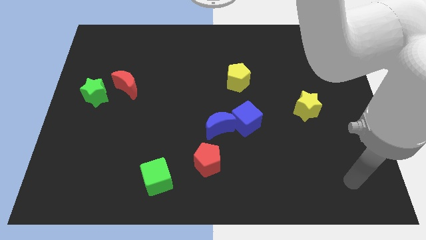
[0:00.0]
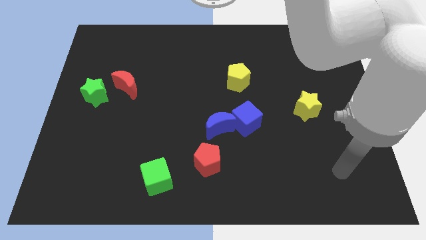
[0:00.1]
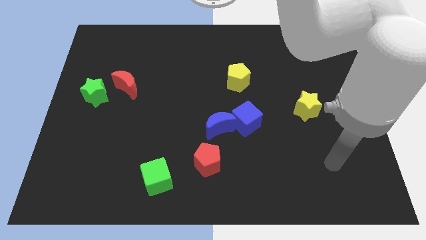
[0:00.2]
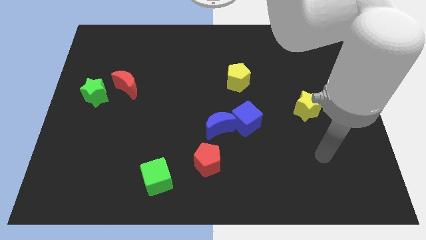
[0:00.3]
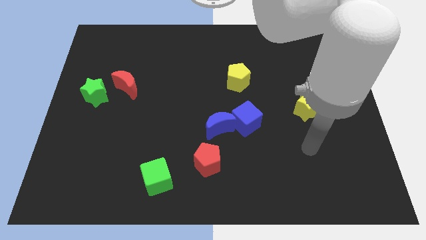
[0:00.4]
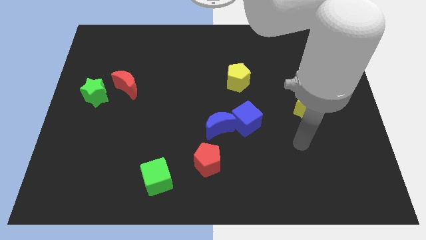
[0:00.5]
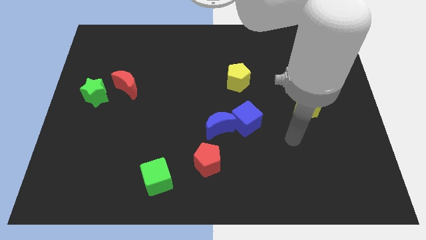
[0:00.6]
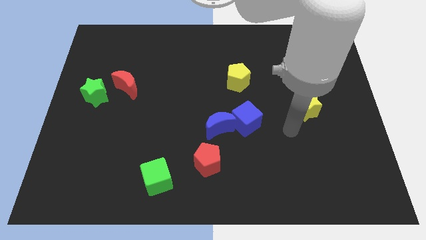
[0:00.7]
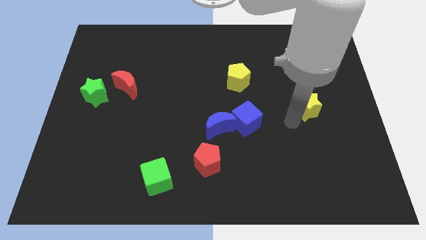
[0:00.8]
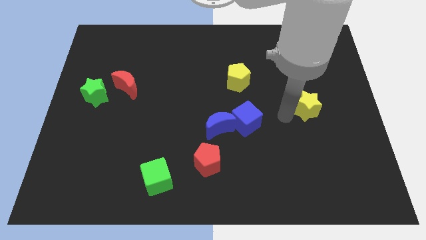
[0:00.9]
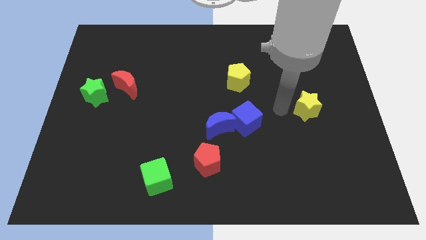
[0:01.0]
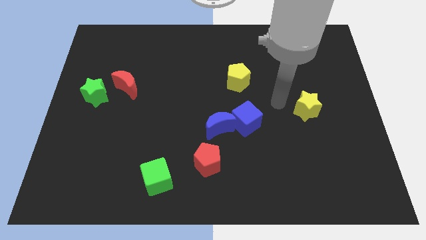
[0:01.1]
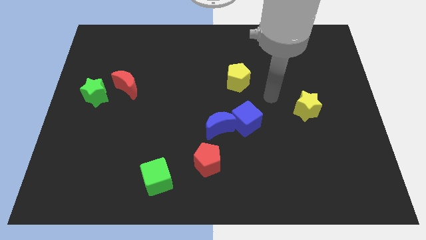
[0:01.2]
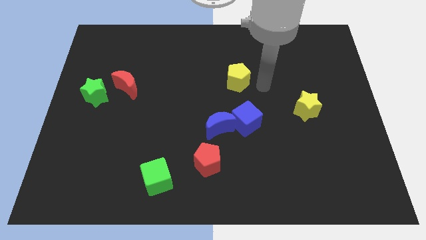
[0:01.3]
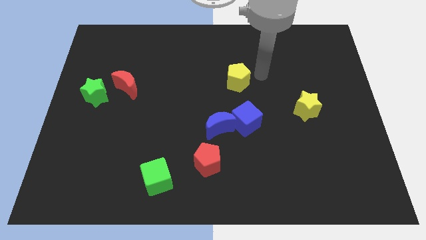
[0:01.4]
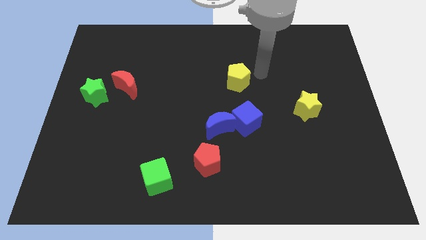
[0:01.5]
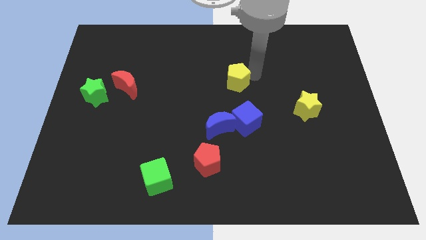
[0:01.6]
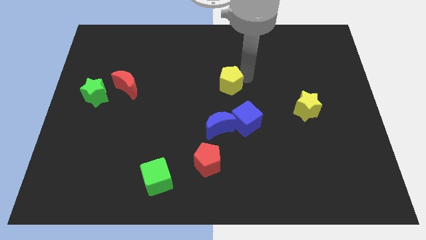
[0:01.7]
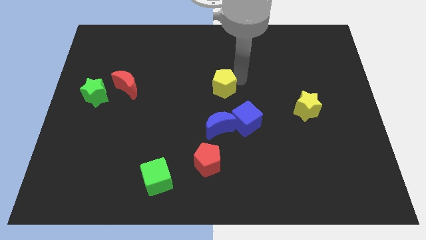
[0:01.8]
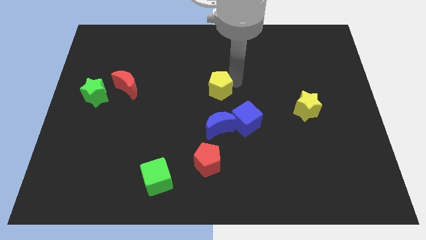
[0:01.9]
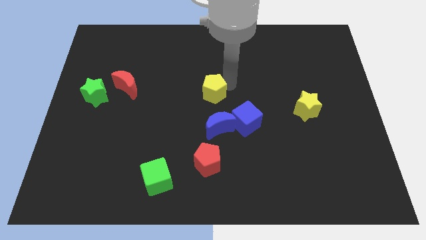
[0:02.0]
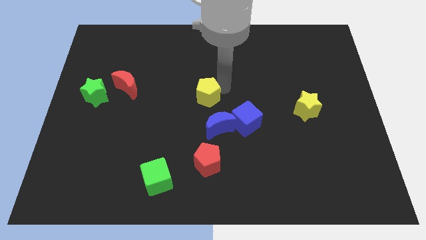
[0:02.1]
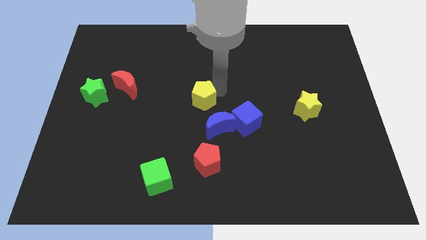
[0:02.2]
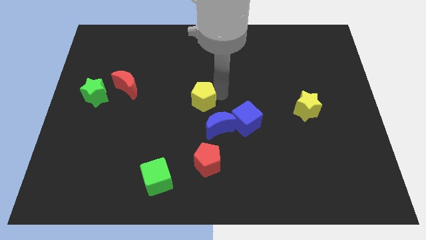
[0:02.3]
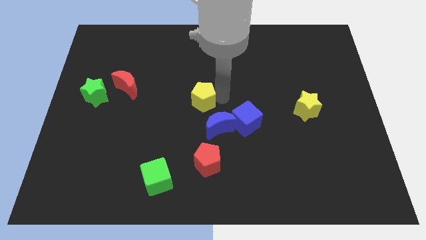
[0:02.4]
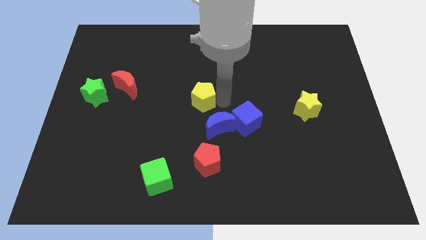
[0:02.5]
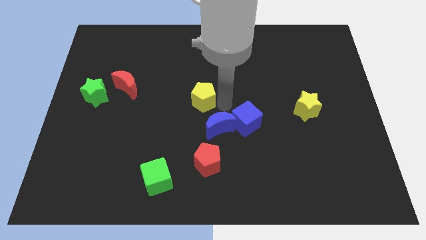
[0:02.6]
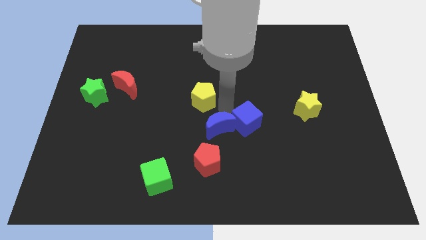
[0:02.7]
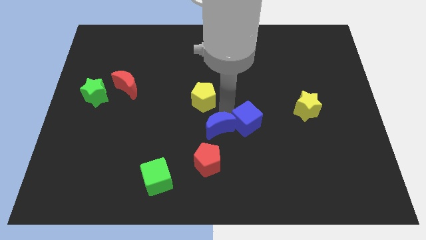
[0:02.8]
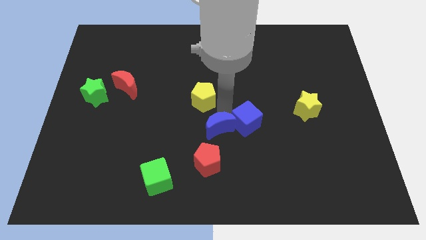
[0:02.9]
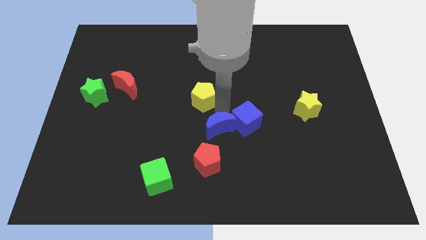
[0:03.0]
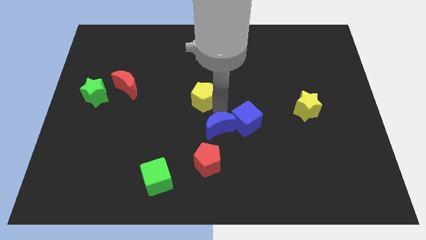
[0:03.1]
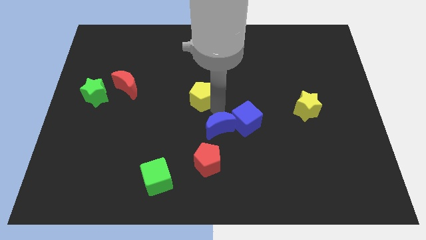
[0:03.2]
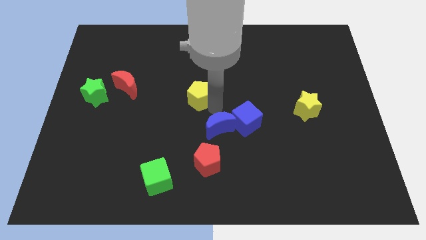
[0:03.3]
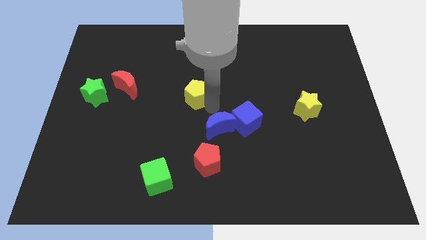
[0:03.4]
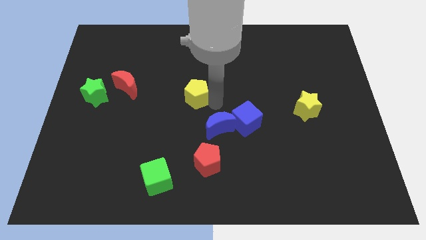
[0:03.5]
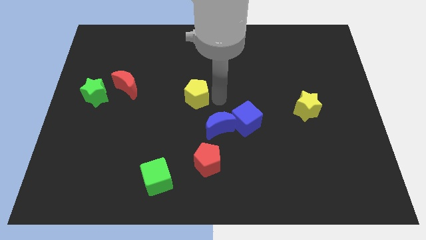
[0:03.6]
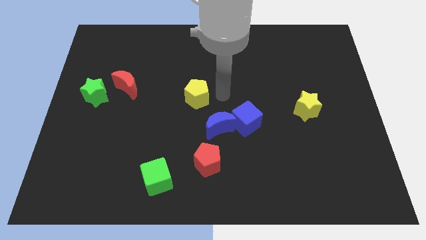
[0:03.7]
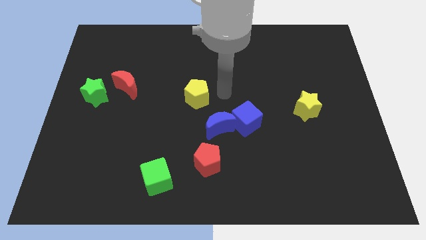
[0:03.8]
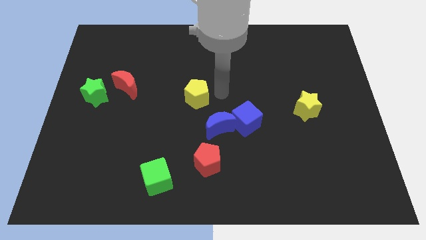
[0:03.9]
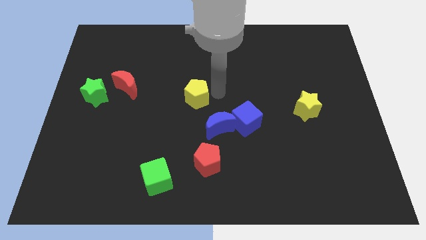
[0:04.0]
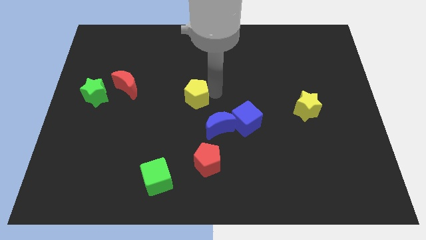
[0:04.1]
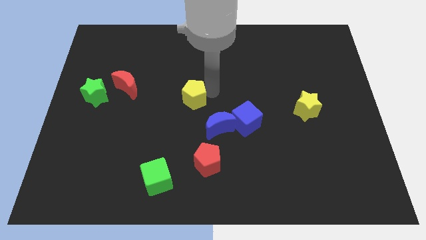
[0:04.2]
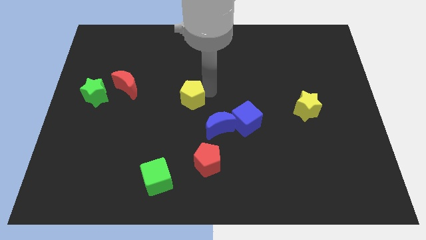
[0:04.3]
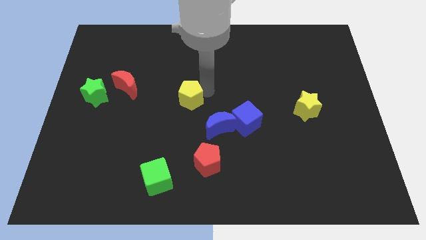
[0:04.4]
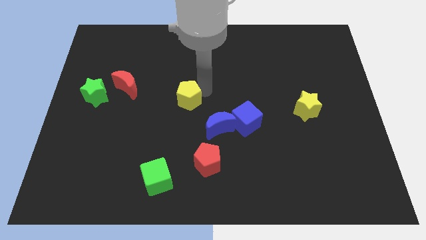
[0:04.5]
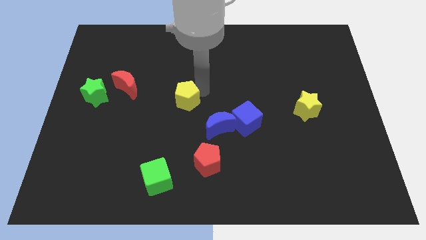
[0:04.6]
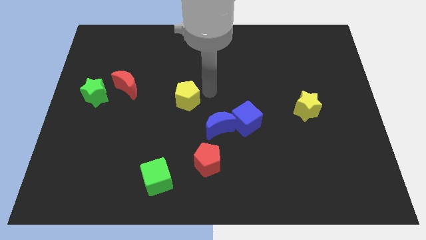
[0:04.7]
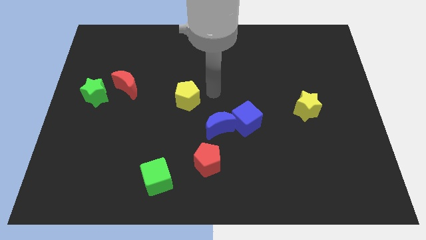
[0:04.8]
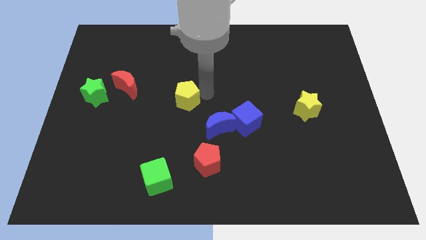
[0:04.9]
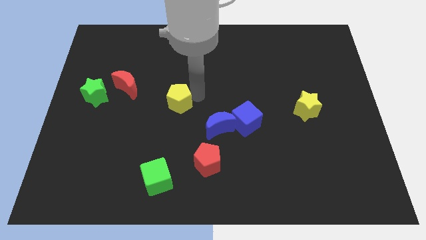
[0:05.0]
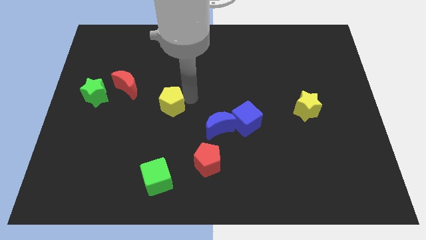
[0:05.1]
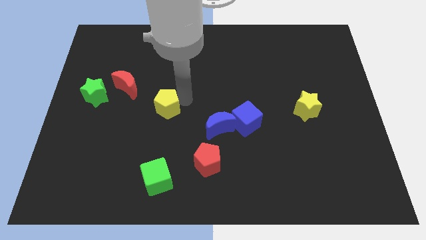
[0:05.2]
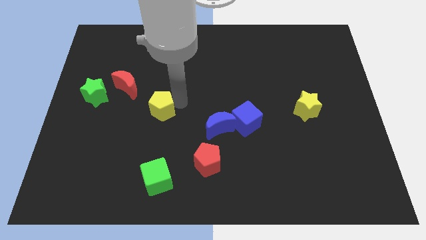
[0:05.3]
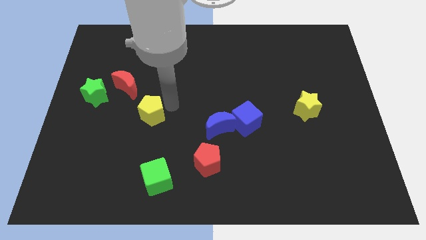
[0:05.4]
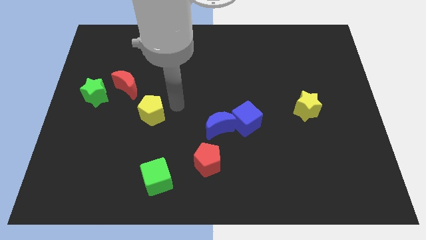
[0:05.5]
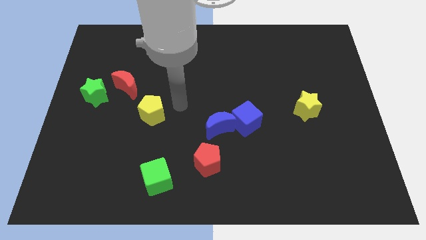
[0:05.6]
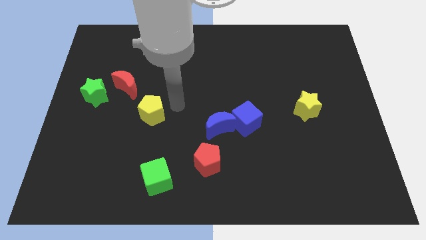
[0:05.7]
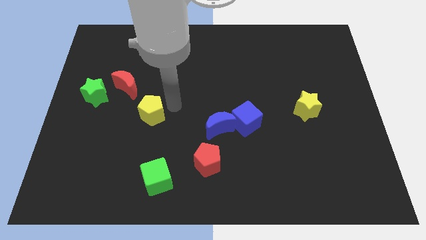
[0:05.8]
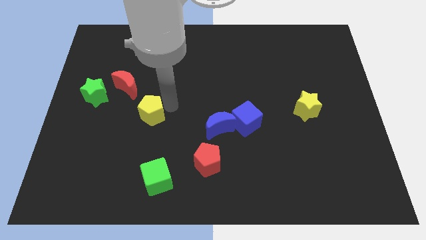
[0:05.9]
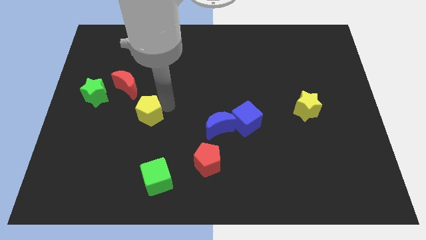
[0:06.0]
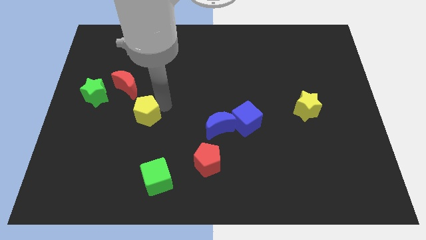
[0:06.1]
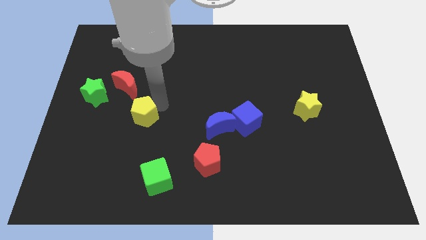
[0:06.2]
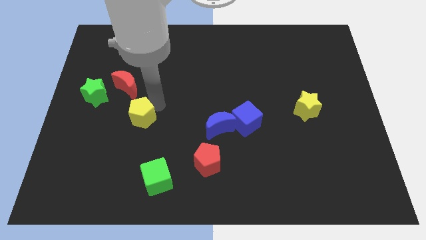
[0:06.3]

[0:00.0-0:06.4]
move the yellow pentagon to the bottom of the red moon

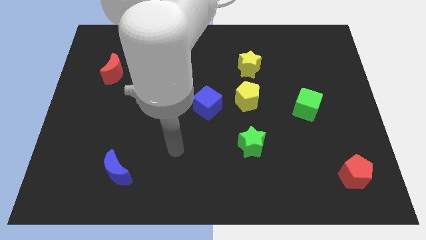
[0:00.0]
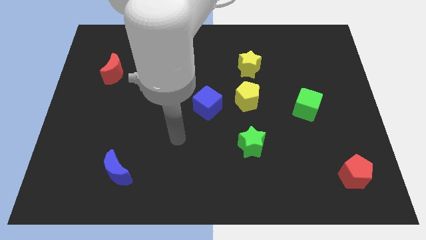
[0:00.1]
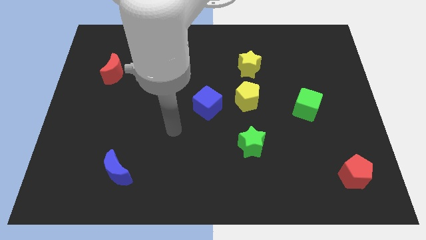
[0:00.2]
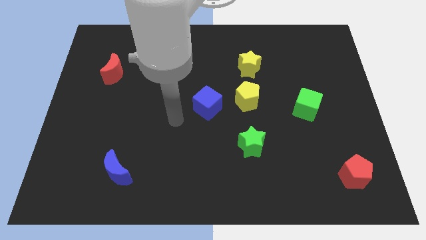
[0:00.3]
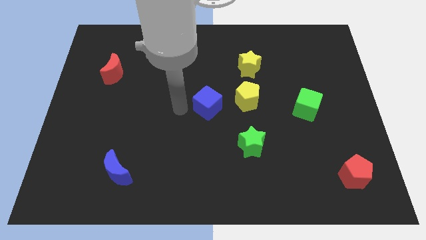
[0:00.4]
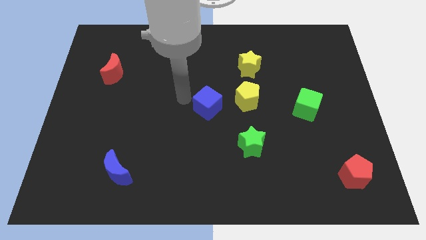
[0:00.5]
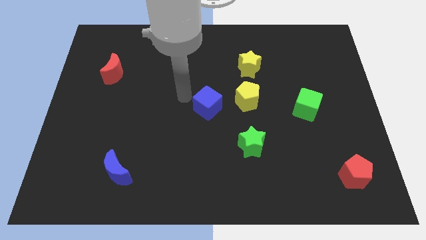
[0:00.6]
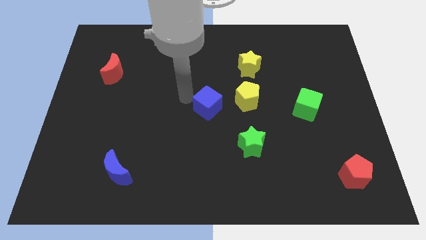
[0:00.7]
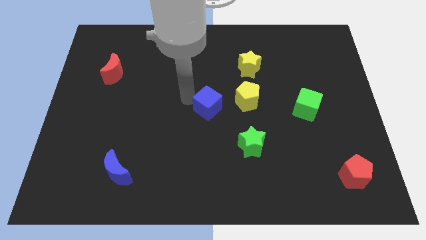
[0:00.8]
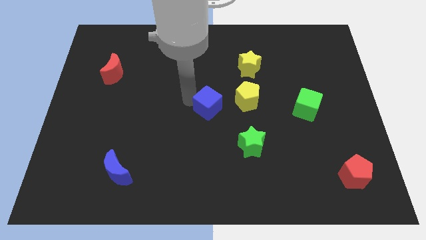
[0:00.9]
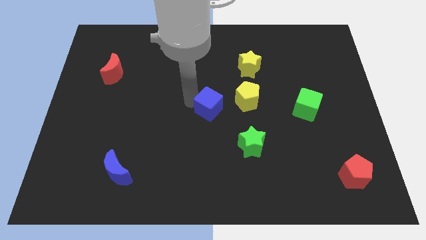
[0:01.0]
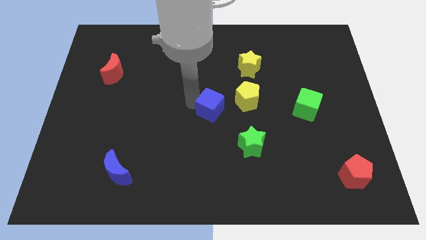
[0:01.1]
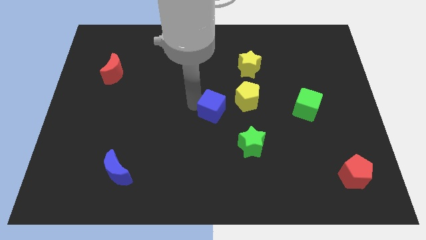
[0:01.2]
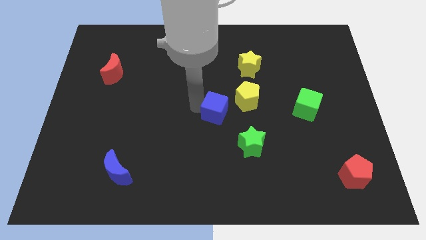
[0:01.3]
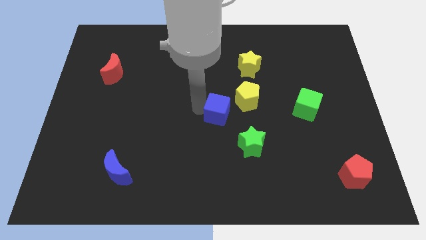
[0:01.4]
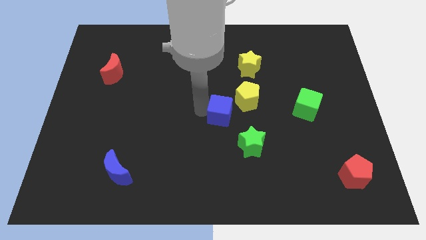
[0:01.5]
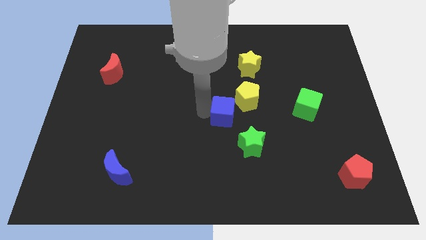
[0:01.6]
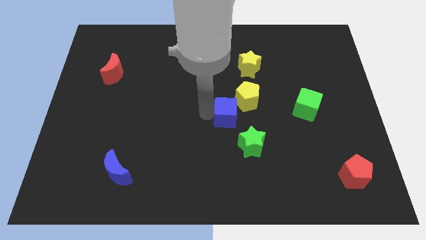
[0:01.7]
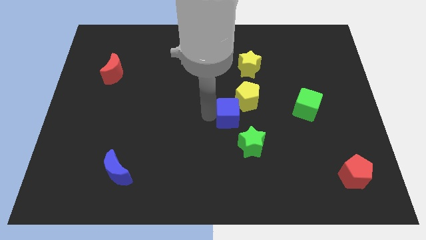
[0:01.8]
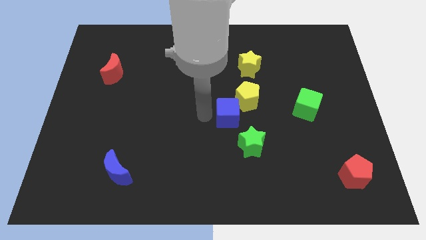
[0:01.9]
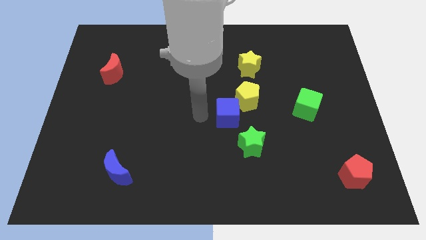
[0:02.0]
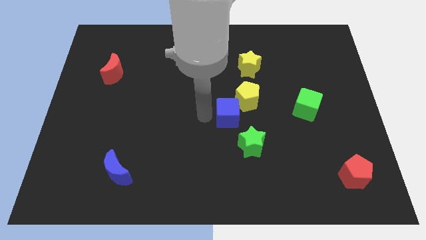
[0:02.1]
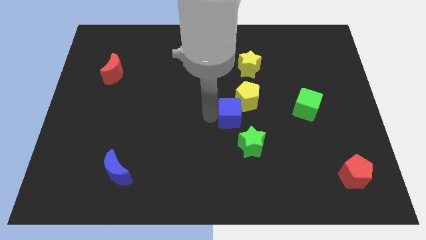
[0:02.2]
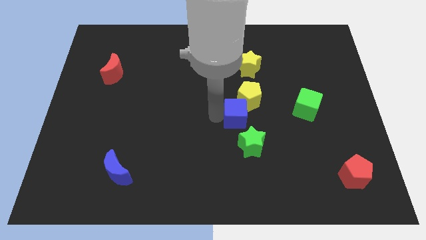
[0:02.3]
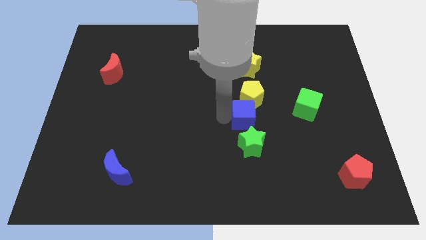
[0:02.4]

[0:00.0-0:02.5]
push the blue cube just left of the green cube
